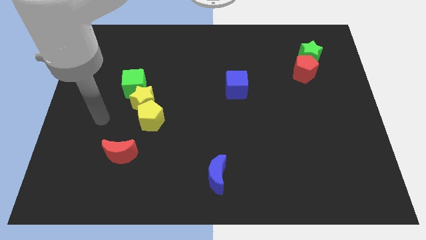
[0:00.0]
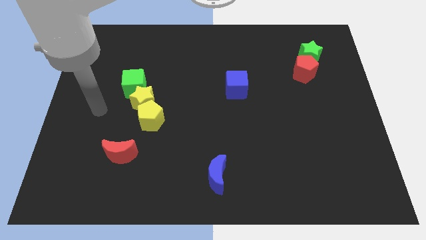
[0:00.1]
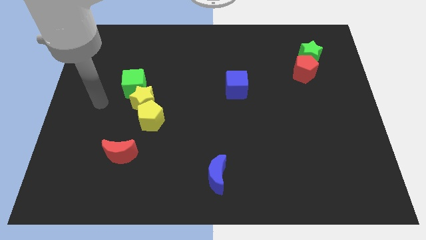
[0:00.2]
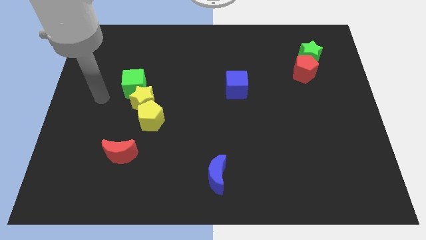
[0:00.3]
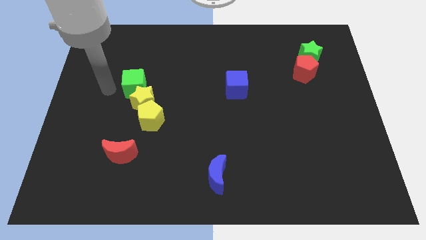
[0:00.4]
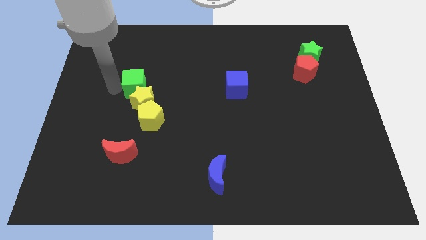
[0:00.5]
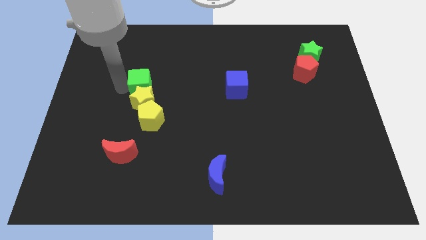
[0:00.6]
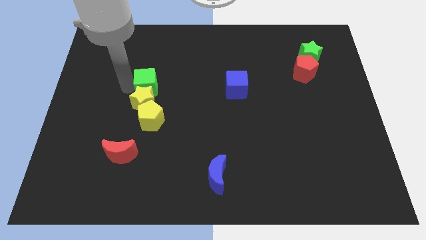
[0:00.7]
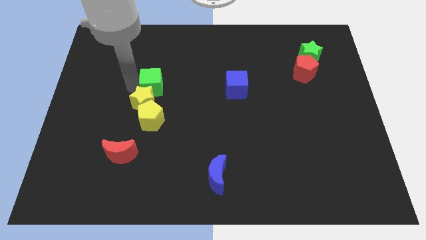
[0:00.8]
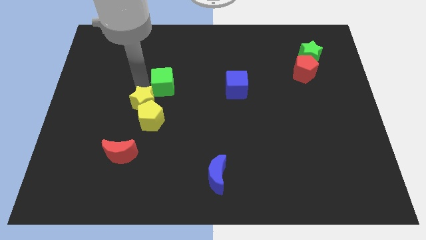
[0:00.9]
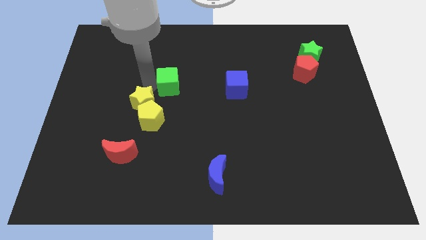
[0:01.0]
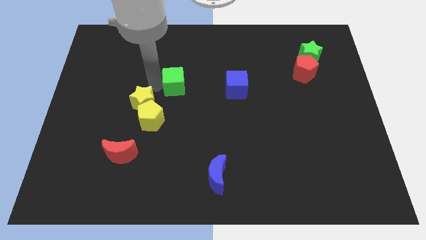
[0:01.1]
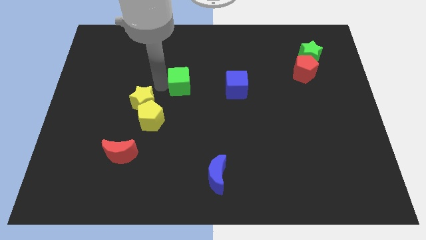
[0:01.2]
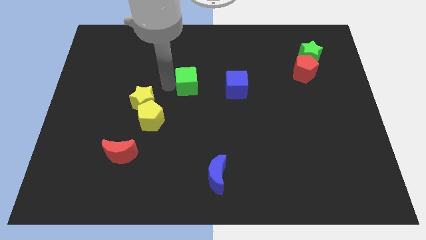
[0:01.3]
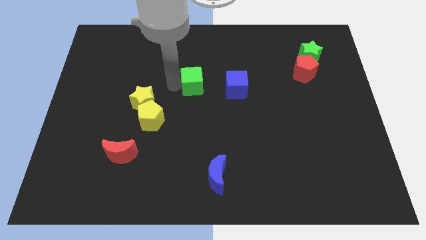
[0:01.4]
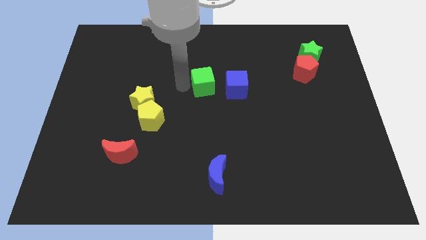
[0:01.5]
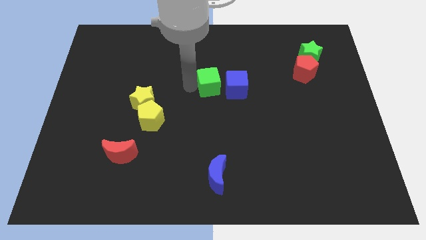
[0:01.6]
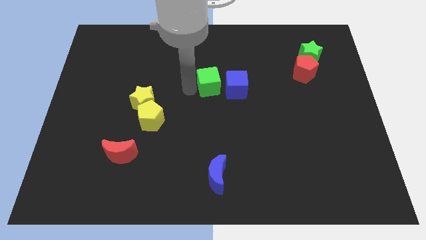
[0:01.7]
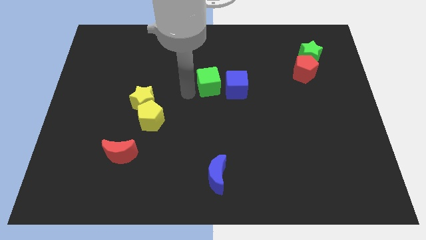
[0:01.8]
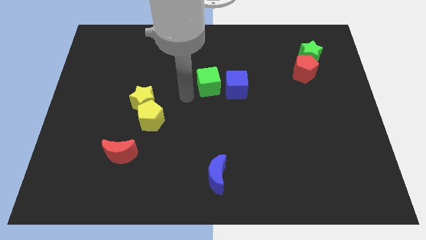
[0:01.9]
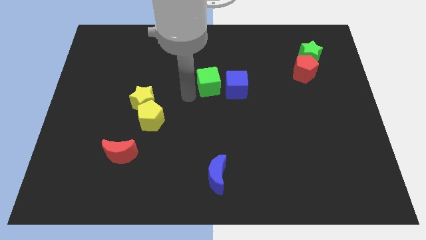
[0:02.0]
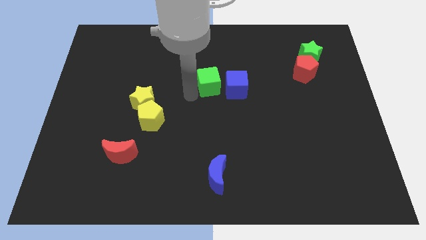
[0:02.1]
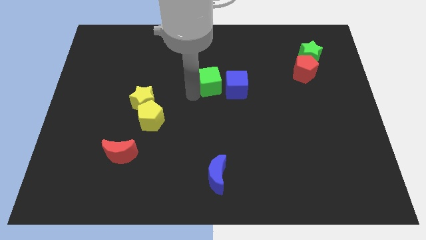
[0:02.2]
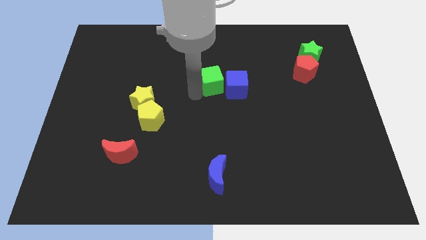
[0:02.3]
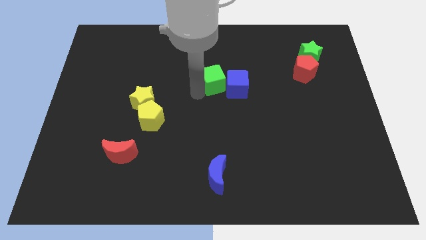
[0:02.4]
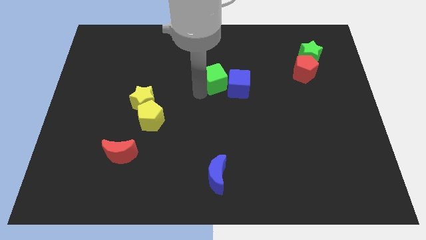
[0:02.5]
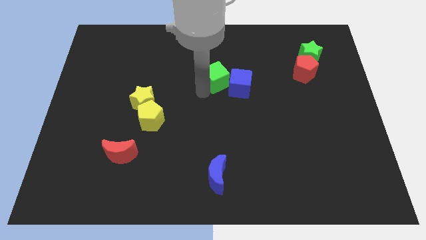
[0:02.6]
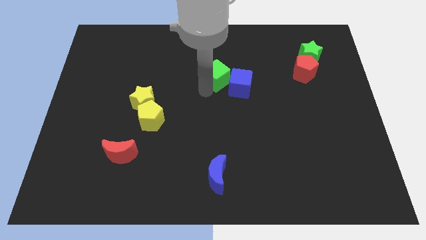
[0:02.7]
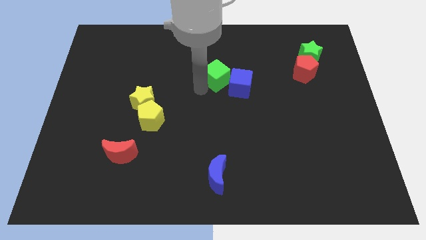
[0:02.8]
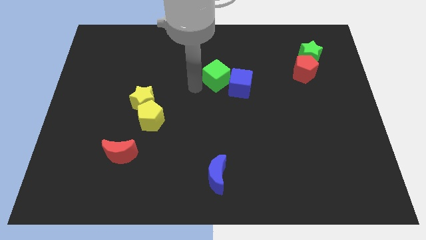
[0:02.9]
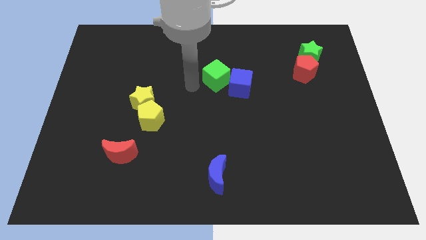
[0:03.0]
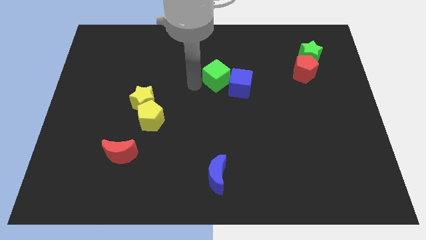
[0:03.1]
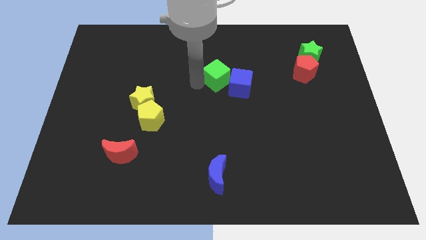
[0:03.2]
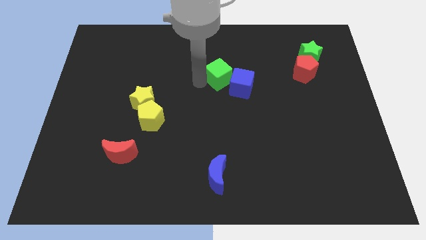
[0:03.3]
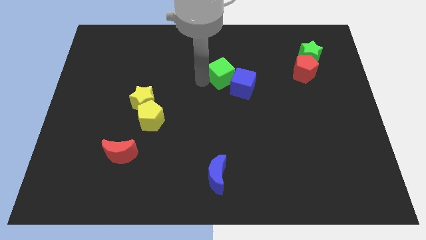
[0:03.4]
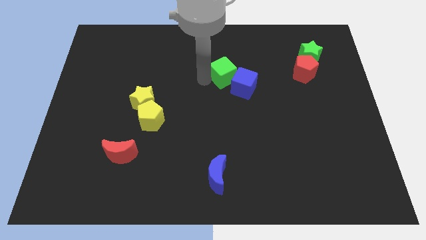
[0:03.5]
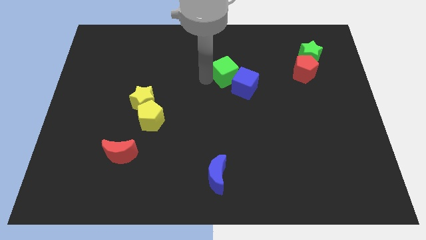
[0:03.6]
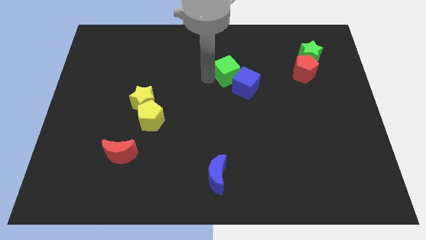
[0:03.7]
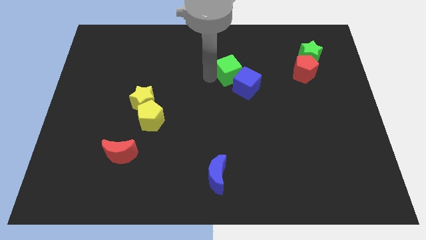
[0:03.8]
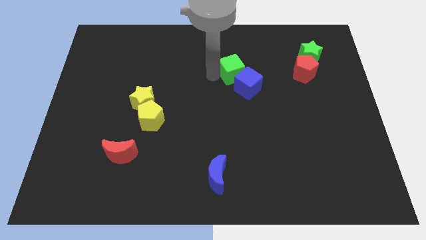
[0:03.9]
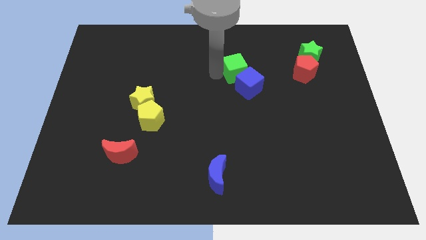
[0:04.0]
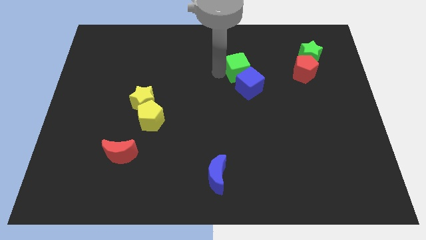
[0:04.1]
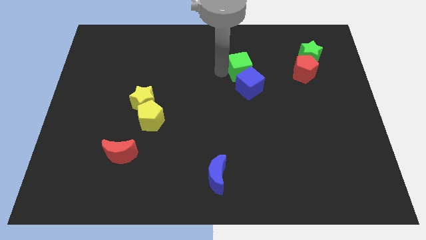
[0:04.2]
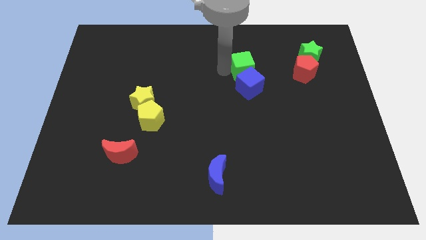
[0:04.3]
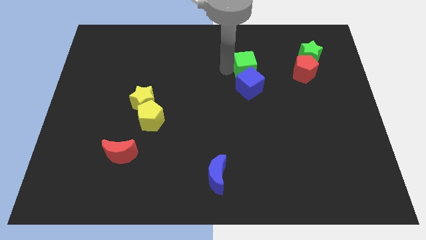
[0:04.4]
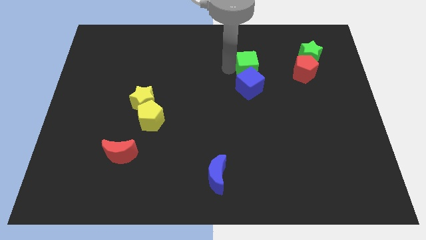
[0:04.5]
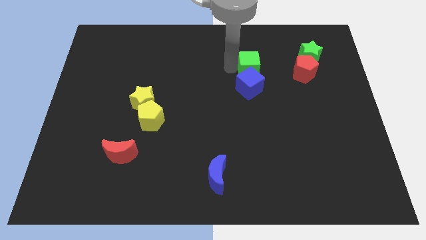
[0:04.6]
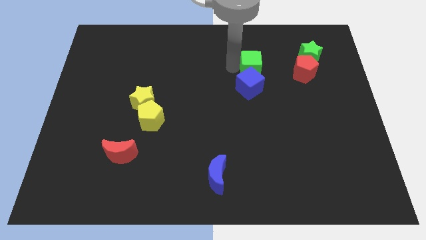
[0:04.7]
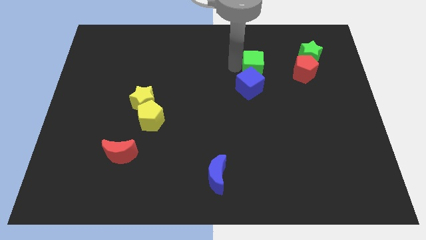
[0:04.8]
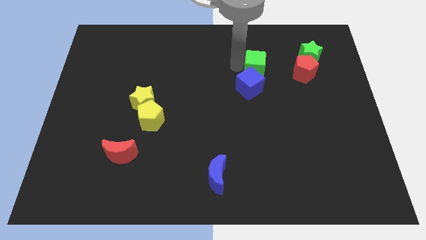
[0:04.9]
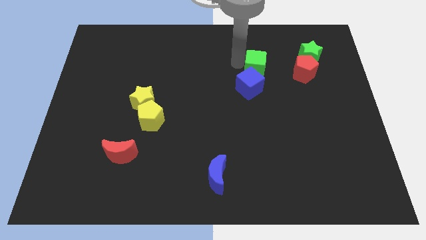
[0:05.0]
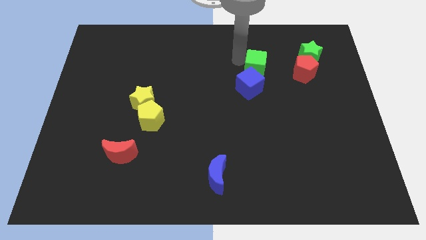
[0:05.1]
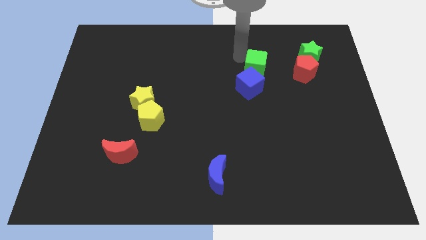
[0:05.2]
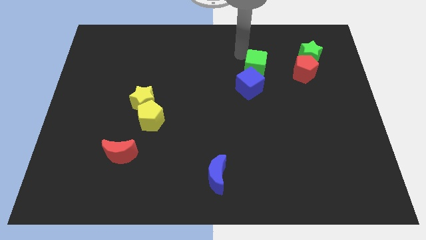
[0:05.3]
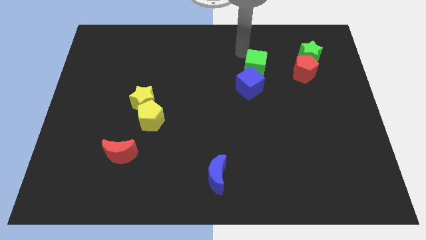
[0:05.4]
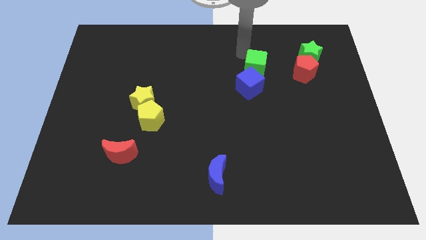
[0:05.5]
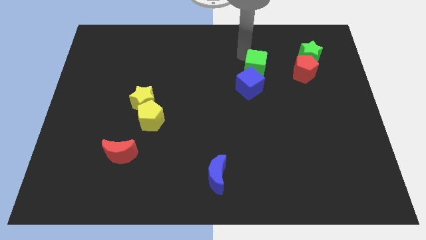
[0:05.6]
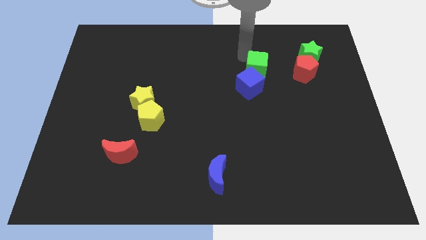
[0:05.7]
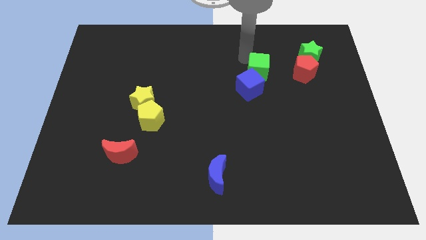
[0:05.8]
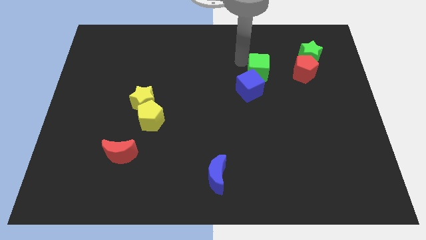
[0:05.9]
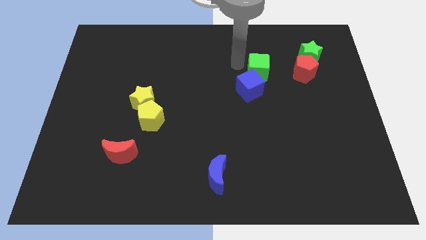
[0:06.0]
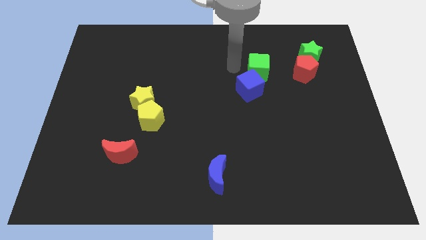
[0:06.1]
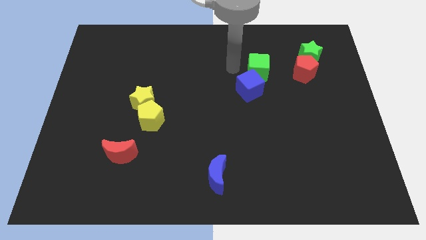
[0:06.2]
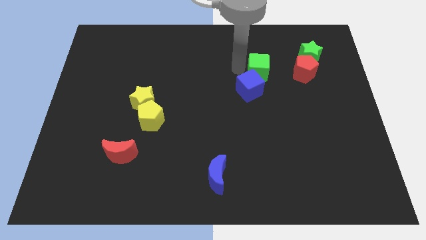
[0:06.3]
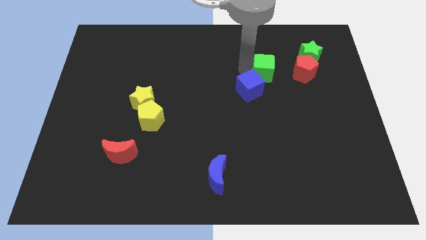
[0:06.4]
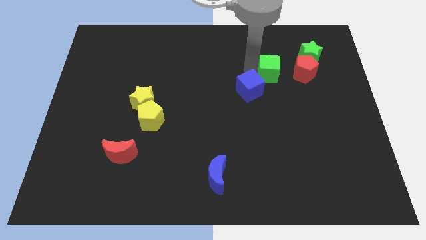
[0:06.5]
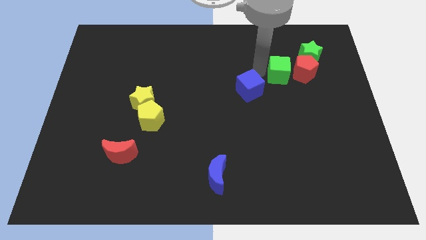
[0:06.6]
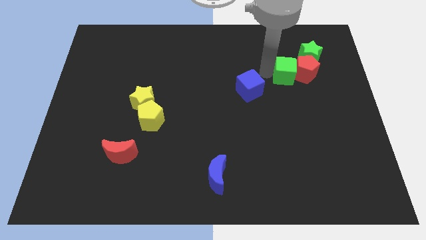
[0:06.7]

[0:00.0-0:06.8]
slide the green cube towards the red pentagon
